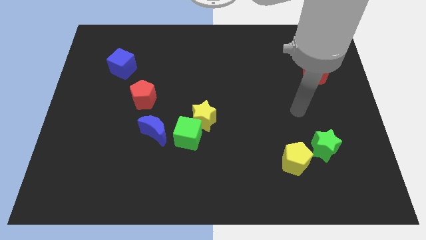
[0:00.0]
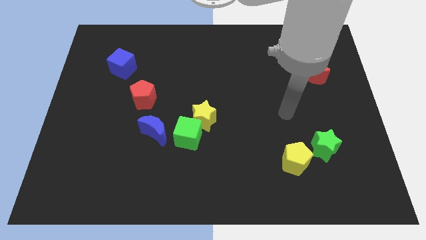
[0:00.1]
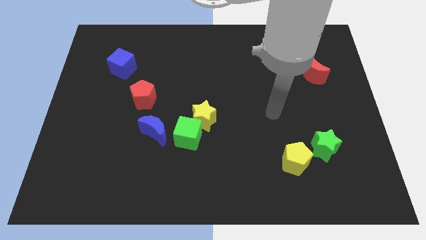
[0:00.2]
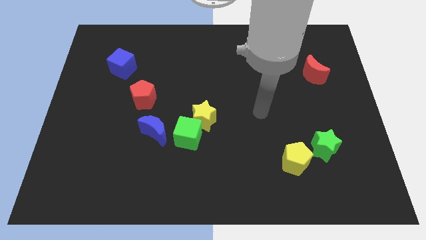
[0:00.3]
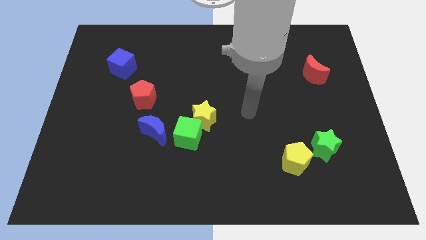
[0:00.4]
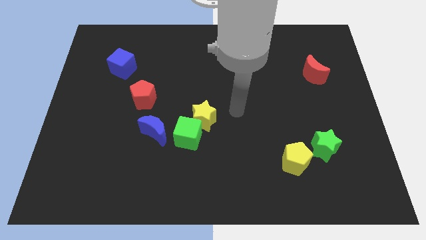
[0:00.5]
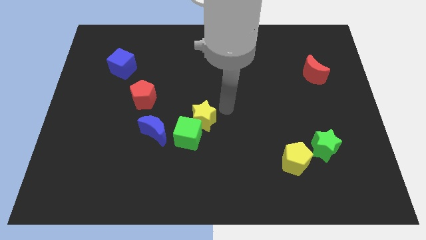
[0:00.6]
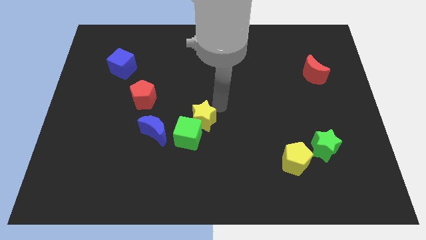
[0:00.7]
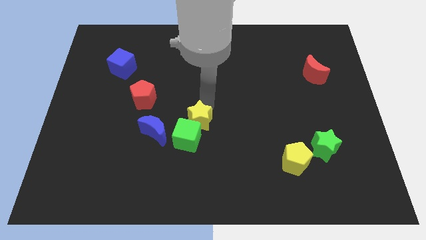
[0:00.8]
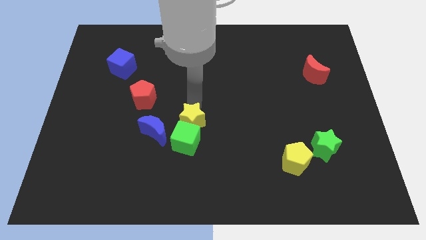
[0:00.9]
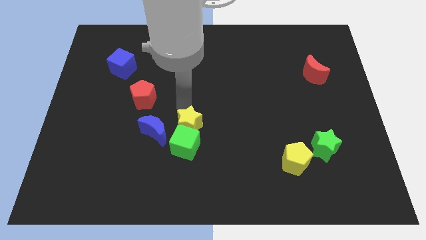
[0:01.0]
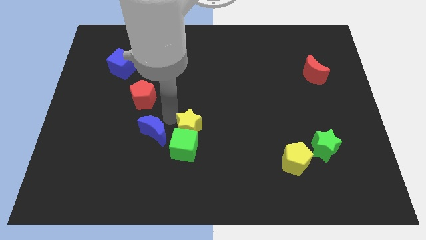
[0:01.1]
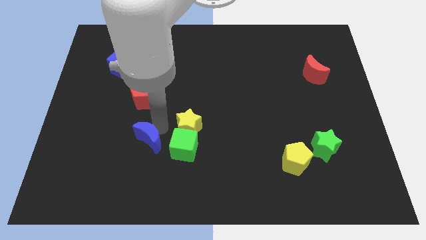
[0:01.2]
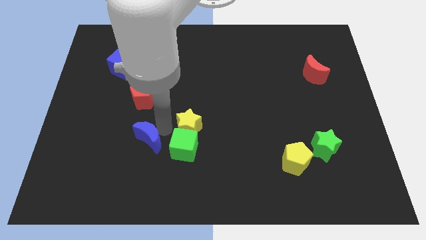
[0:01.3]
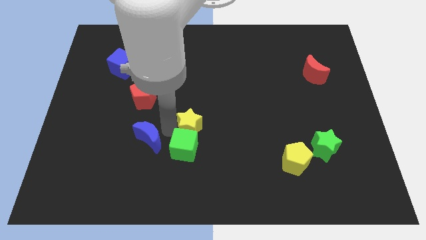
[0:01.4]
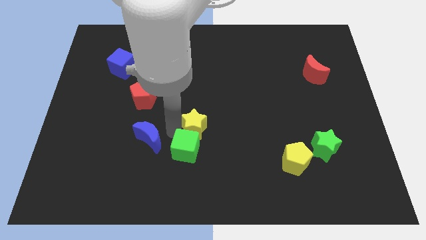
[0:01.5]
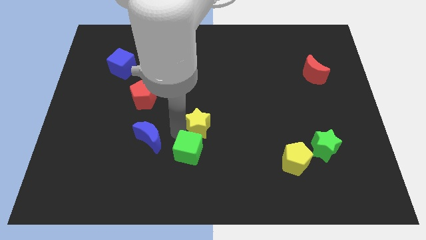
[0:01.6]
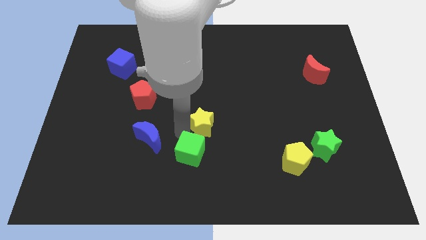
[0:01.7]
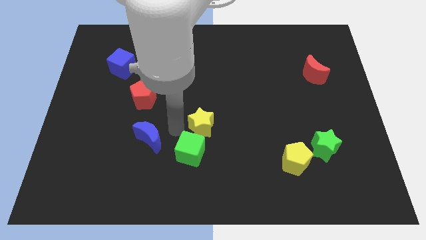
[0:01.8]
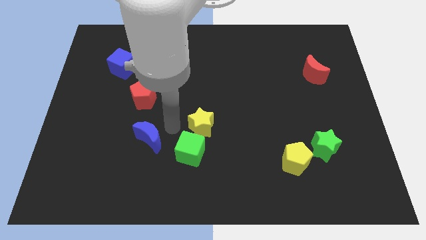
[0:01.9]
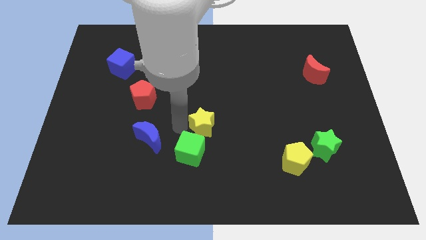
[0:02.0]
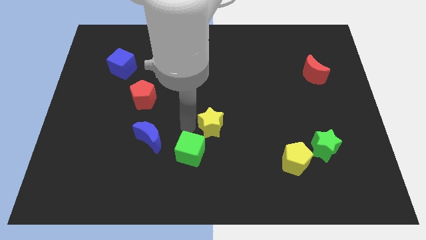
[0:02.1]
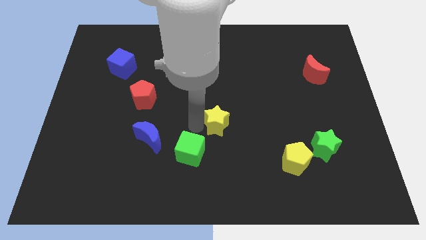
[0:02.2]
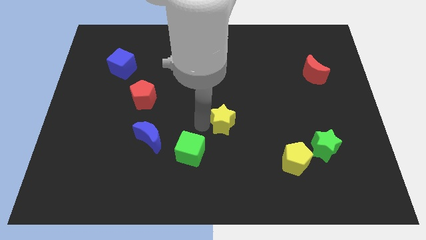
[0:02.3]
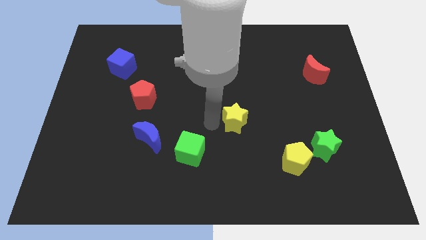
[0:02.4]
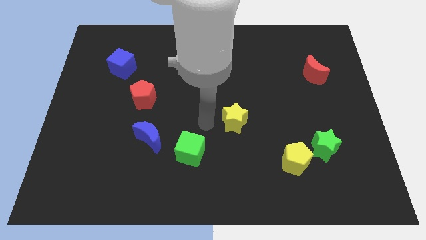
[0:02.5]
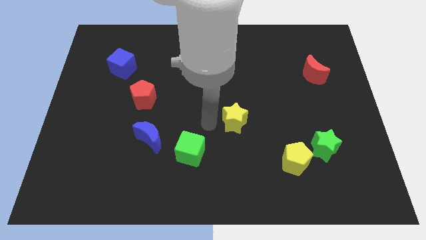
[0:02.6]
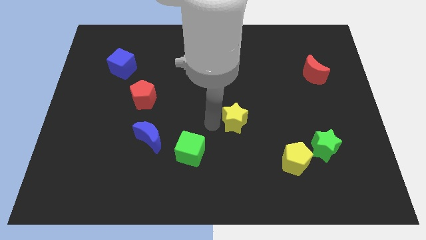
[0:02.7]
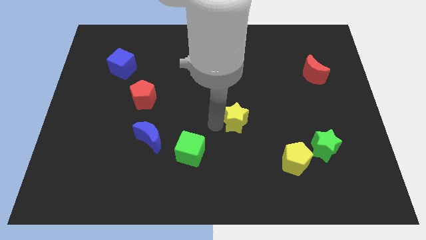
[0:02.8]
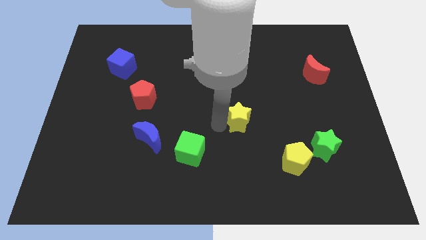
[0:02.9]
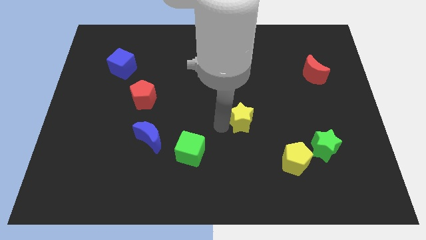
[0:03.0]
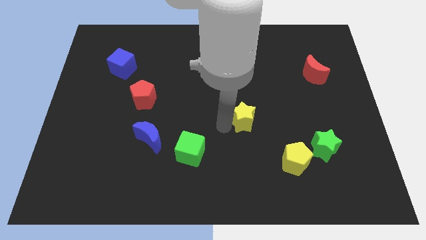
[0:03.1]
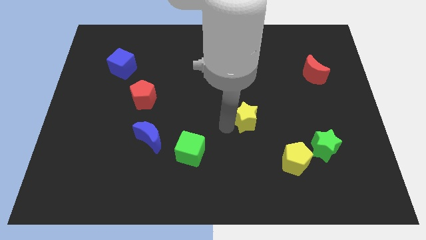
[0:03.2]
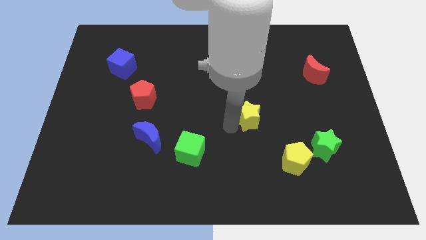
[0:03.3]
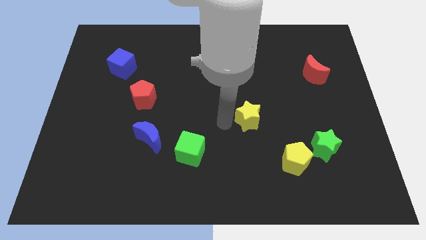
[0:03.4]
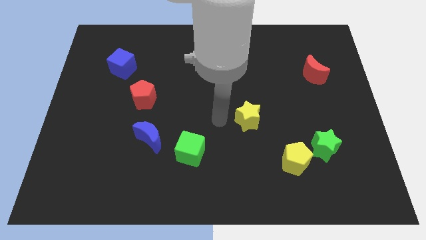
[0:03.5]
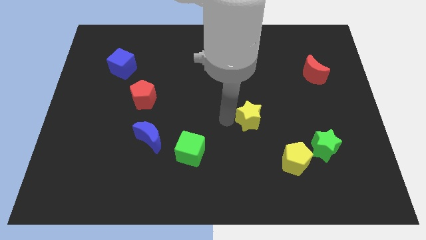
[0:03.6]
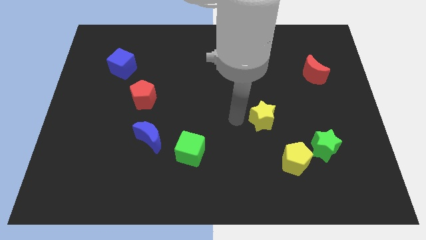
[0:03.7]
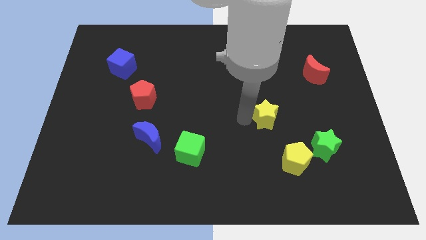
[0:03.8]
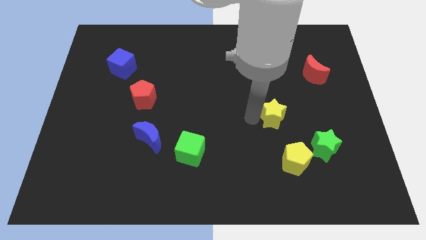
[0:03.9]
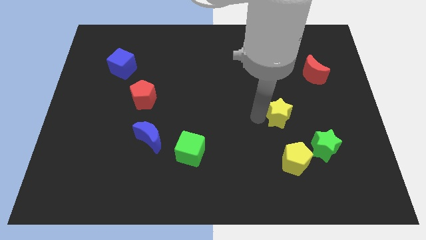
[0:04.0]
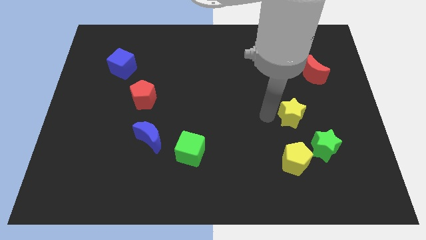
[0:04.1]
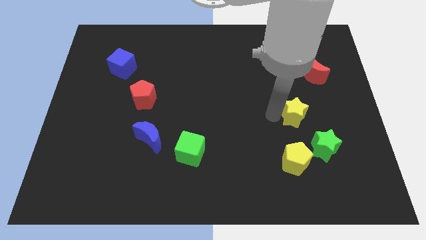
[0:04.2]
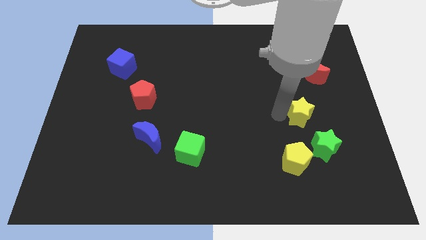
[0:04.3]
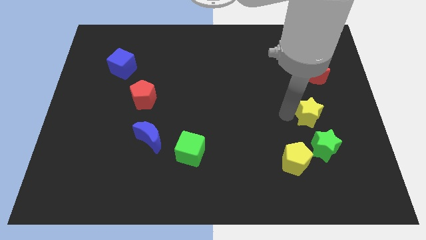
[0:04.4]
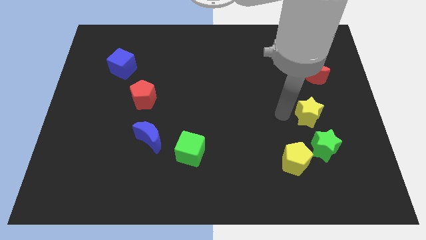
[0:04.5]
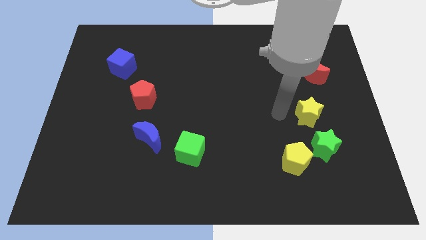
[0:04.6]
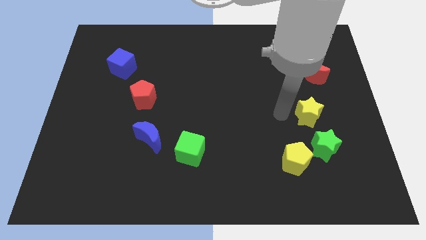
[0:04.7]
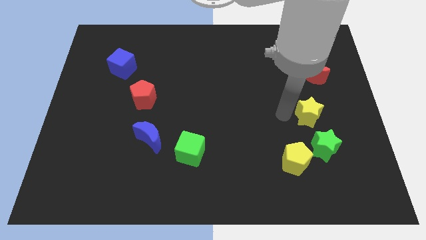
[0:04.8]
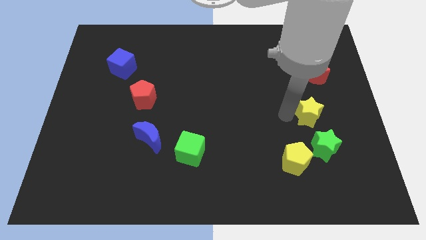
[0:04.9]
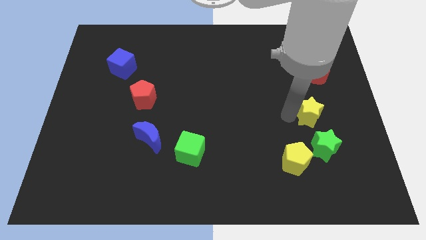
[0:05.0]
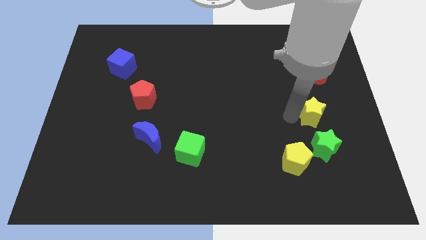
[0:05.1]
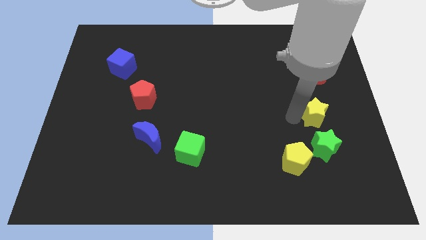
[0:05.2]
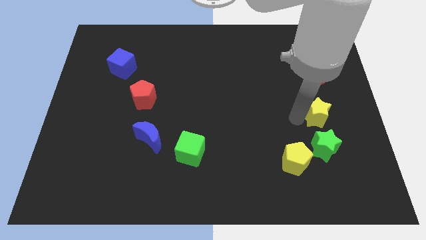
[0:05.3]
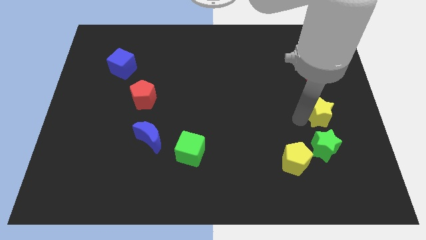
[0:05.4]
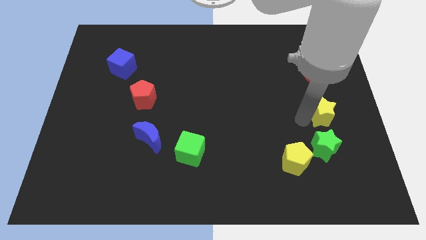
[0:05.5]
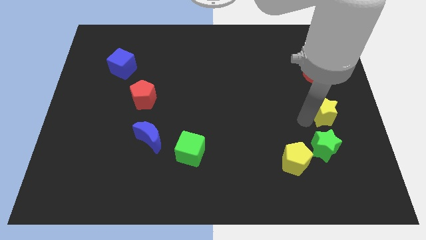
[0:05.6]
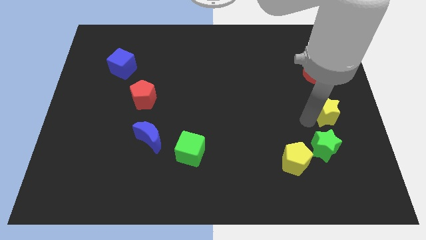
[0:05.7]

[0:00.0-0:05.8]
move the yellow star to the right side
